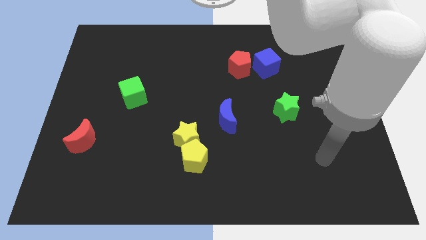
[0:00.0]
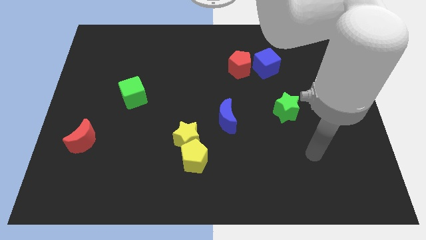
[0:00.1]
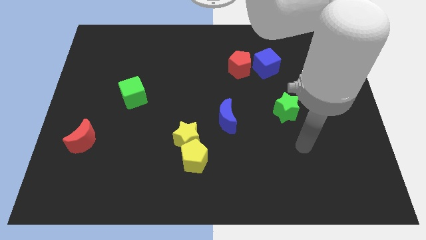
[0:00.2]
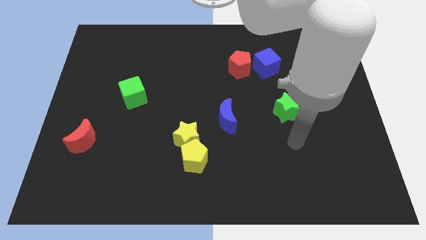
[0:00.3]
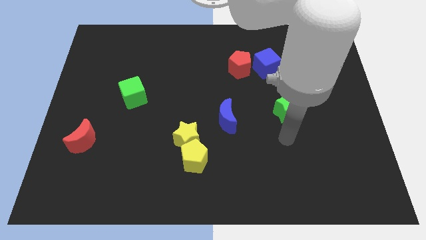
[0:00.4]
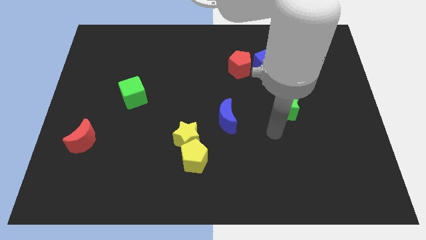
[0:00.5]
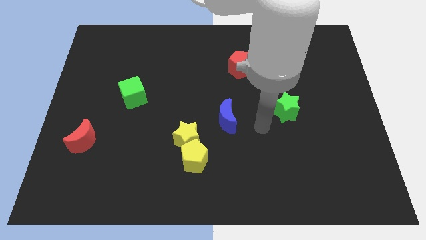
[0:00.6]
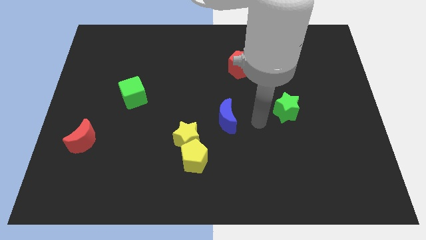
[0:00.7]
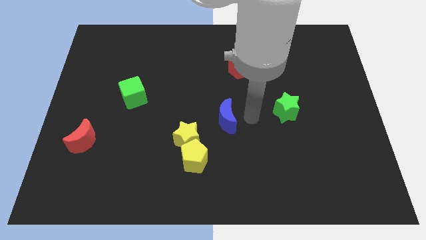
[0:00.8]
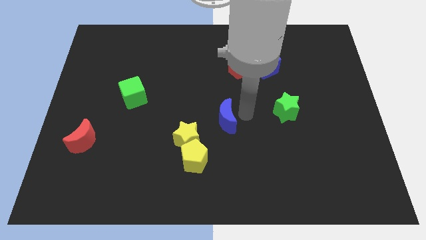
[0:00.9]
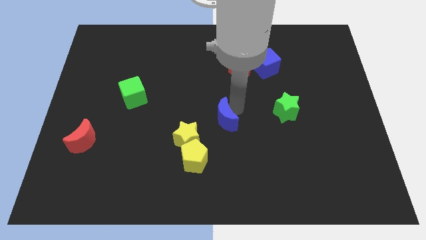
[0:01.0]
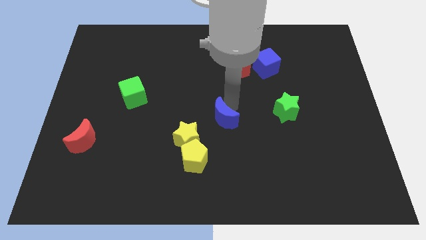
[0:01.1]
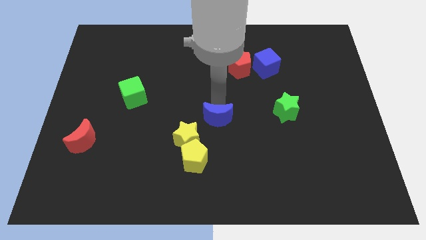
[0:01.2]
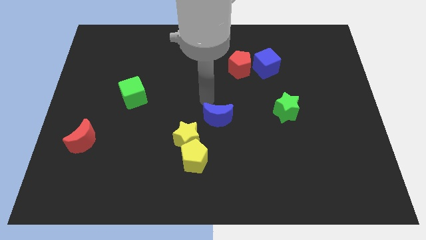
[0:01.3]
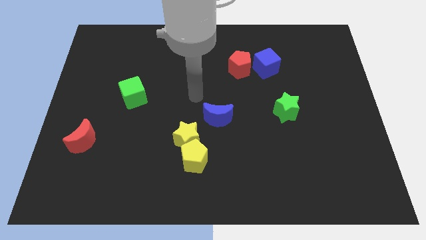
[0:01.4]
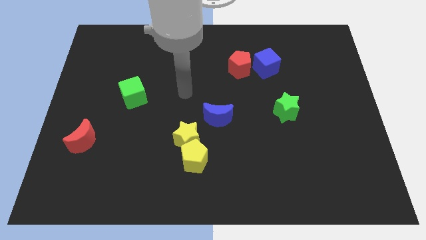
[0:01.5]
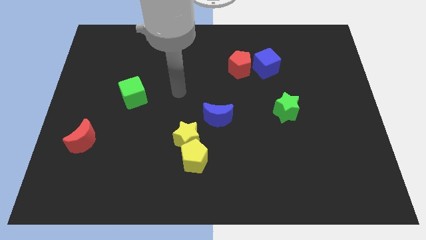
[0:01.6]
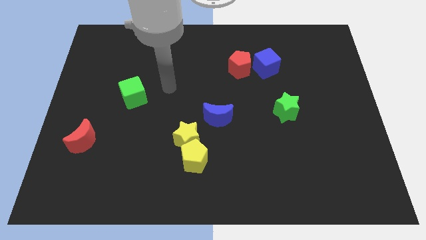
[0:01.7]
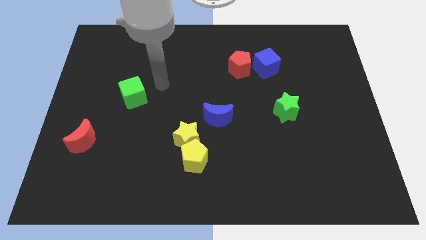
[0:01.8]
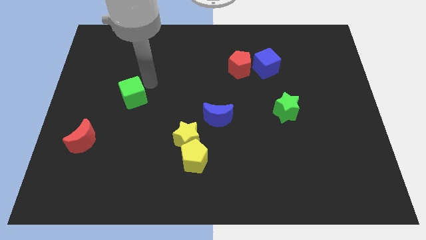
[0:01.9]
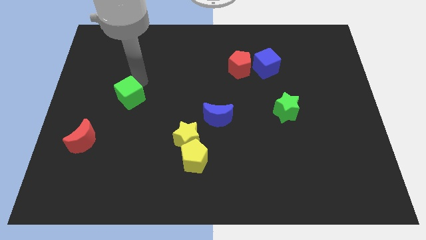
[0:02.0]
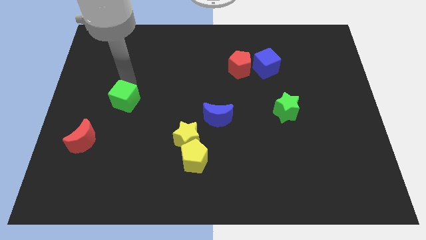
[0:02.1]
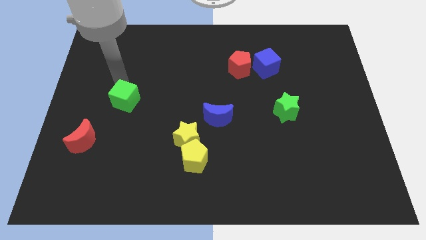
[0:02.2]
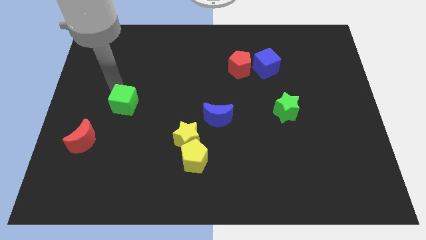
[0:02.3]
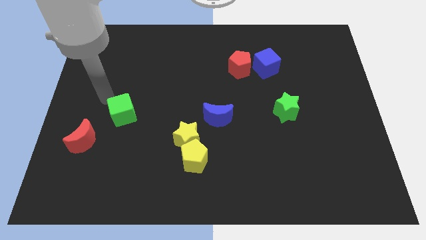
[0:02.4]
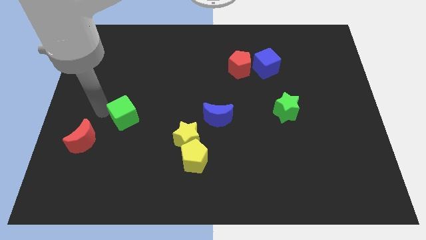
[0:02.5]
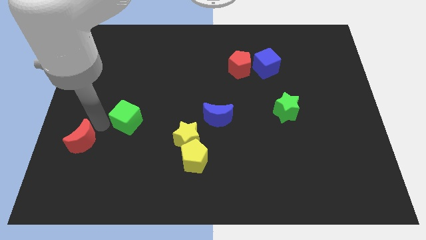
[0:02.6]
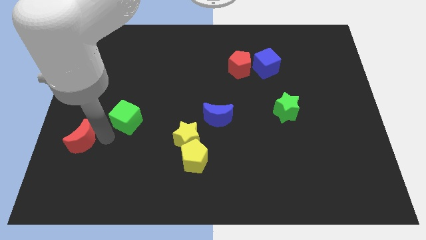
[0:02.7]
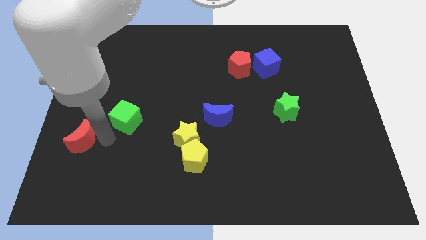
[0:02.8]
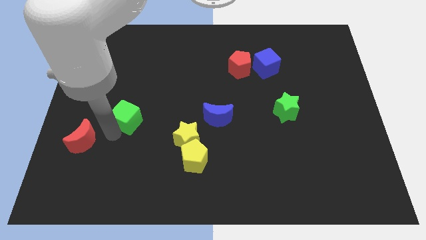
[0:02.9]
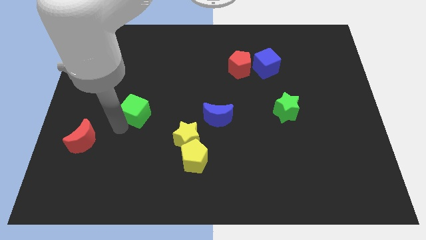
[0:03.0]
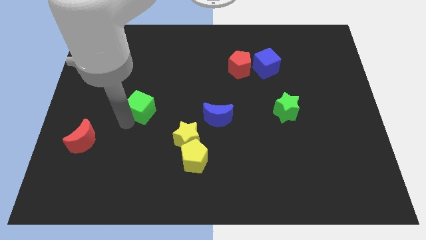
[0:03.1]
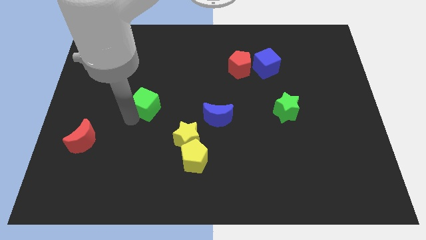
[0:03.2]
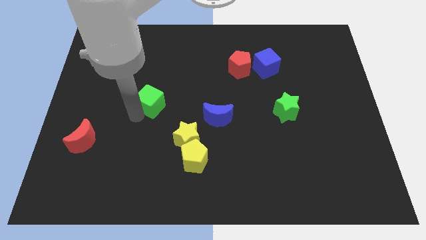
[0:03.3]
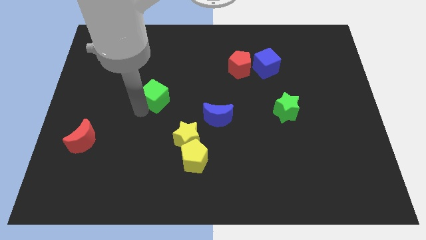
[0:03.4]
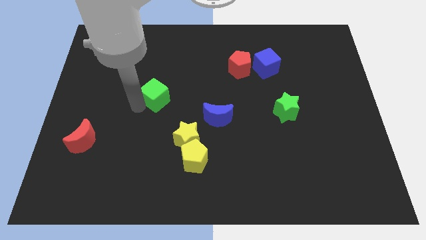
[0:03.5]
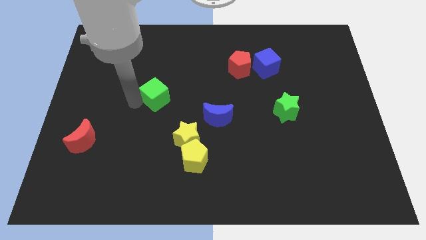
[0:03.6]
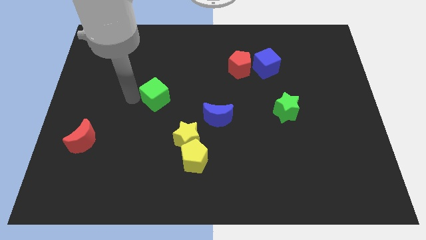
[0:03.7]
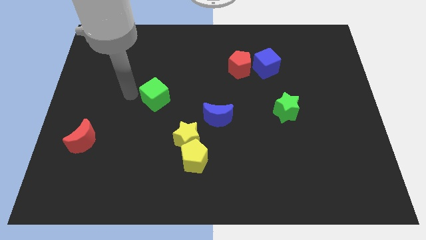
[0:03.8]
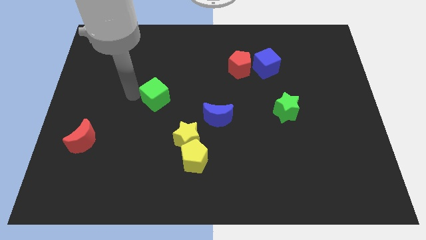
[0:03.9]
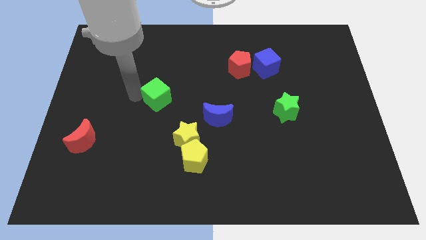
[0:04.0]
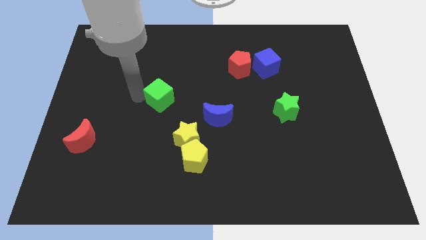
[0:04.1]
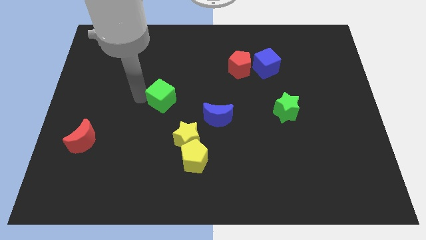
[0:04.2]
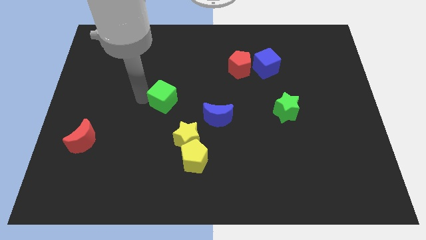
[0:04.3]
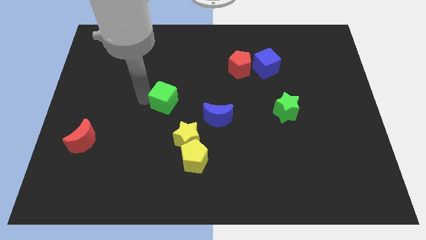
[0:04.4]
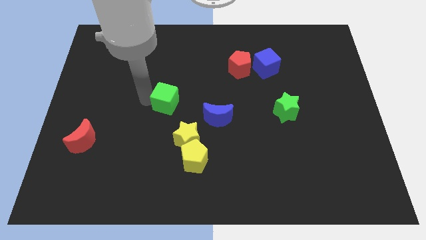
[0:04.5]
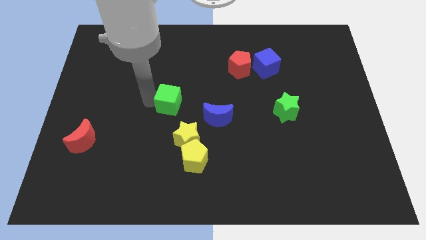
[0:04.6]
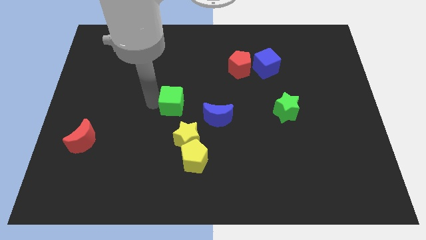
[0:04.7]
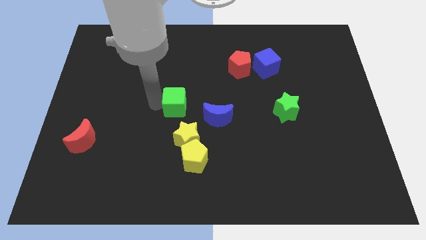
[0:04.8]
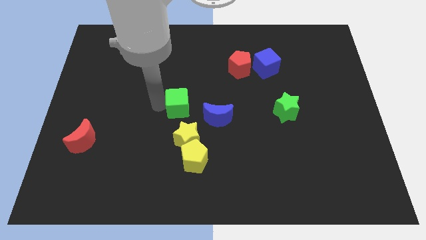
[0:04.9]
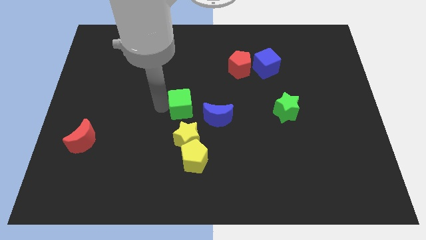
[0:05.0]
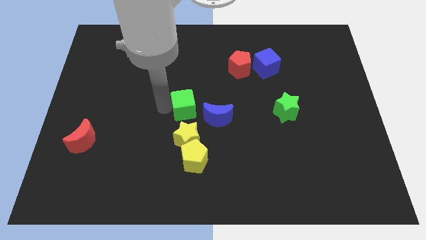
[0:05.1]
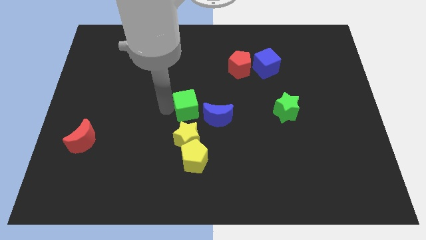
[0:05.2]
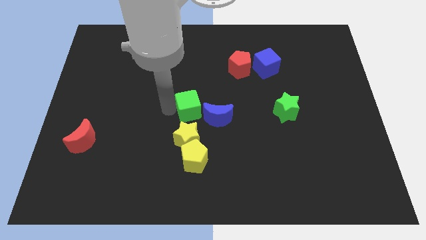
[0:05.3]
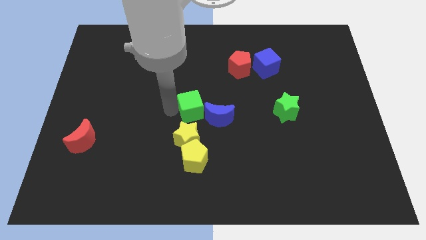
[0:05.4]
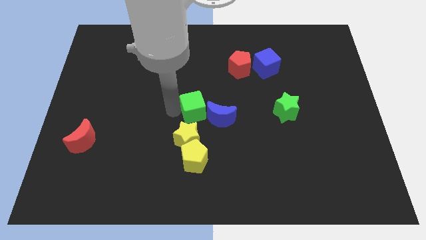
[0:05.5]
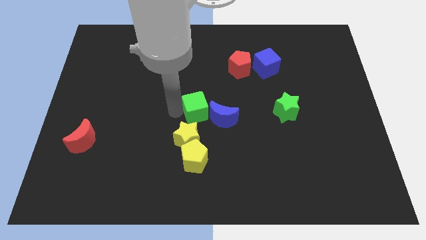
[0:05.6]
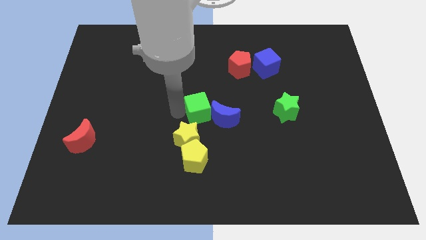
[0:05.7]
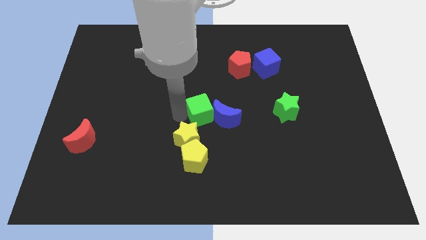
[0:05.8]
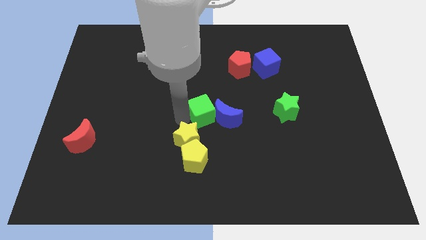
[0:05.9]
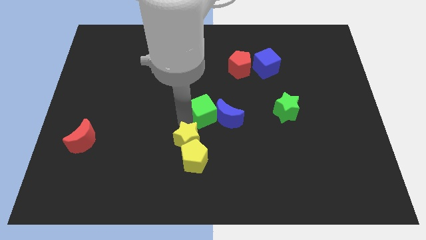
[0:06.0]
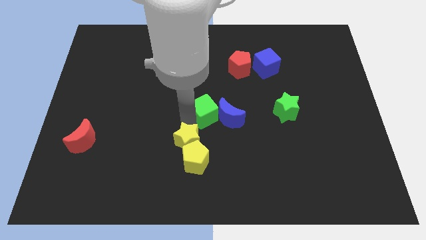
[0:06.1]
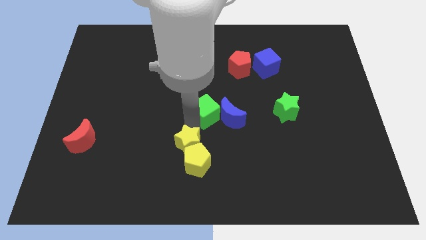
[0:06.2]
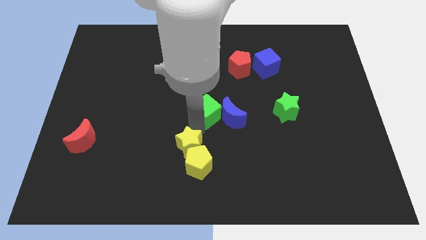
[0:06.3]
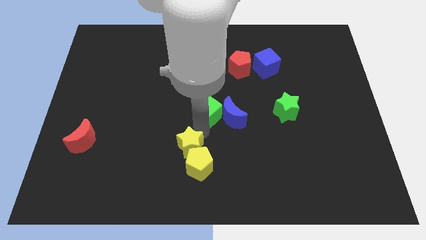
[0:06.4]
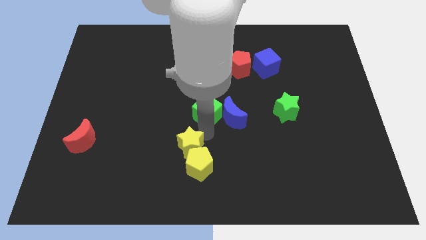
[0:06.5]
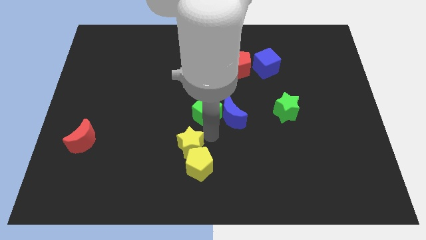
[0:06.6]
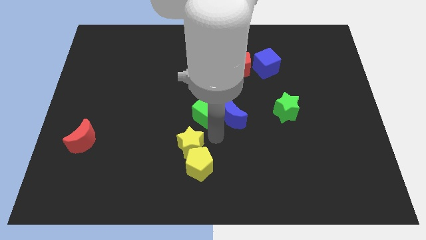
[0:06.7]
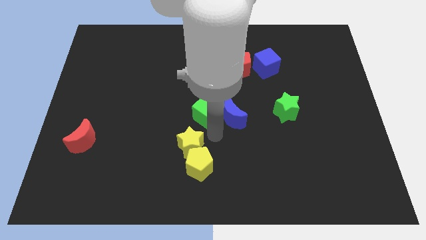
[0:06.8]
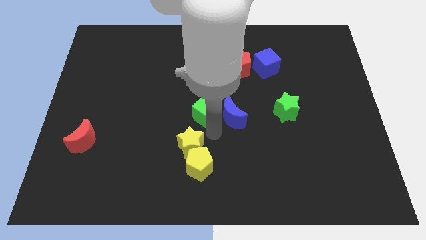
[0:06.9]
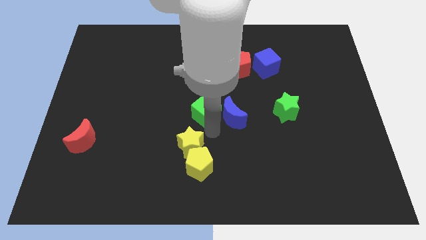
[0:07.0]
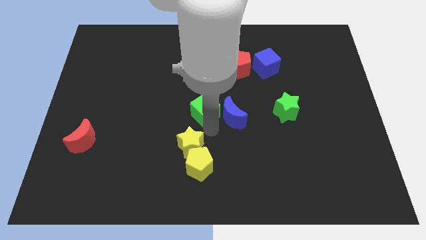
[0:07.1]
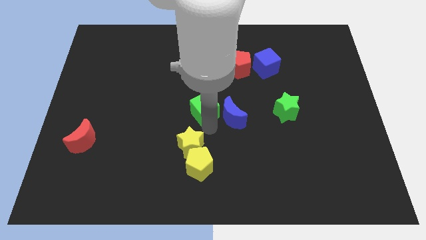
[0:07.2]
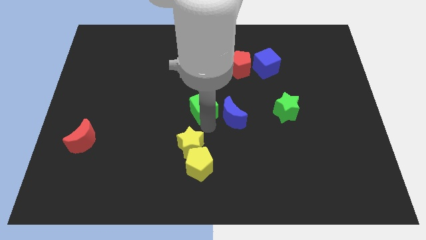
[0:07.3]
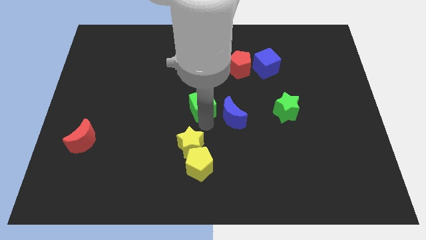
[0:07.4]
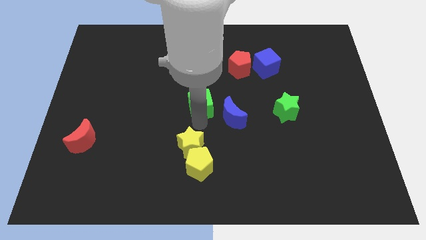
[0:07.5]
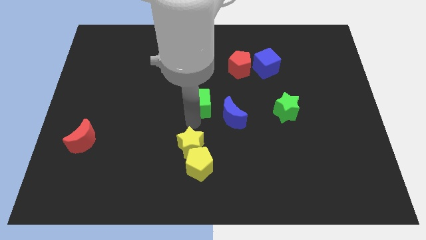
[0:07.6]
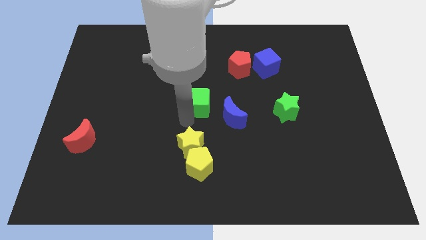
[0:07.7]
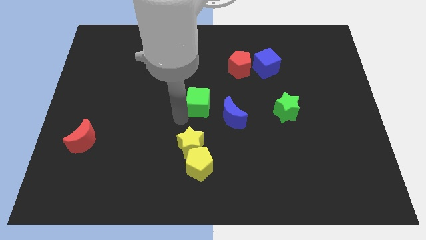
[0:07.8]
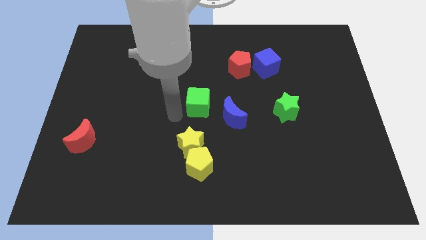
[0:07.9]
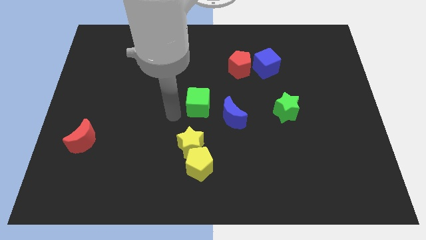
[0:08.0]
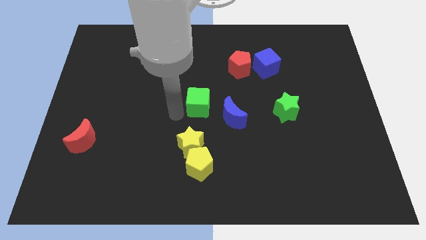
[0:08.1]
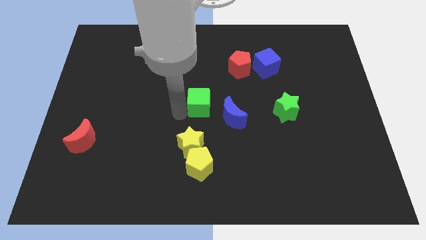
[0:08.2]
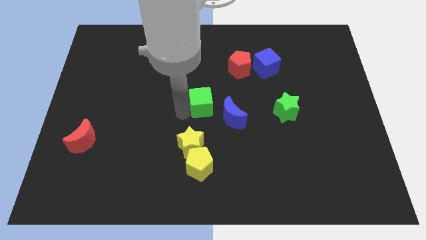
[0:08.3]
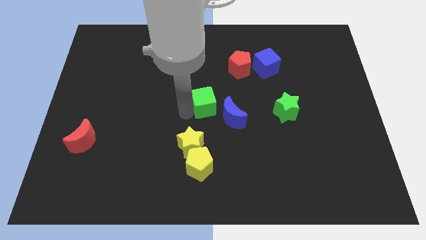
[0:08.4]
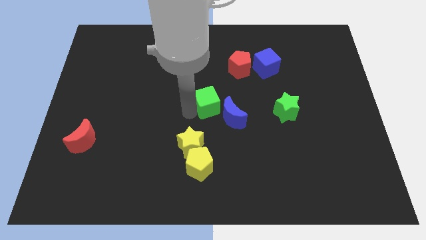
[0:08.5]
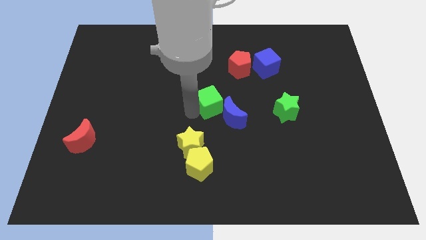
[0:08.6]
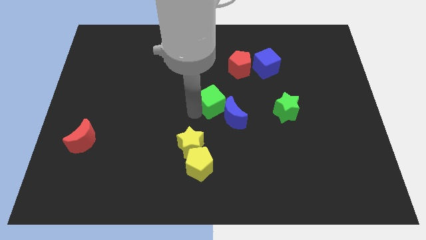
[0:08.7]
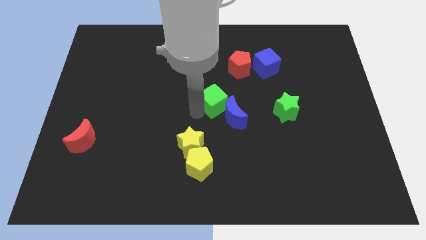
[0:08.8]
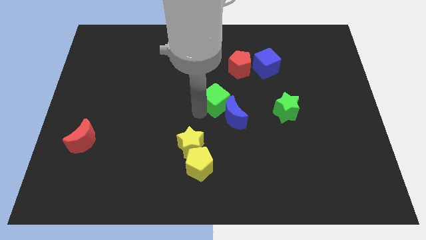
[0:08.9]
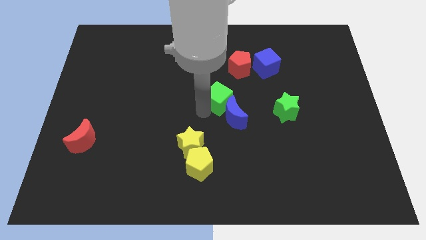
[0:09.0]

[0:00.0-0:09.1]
slide the green cube to the right
